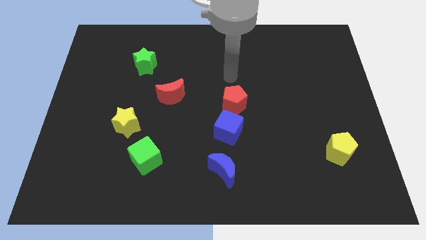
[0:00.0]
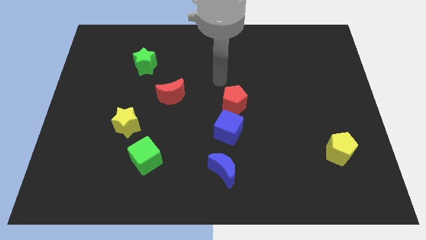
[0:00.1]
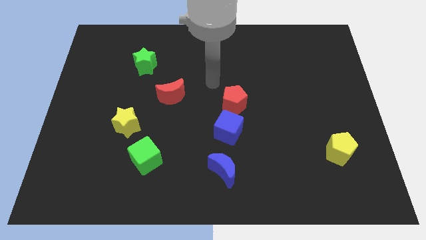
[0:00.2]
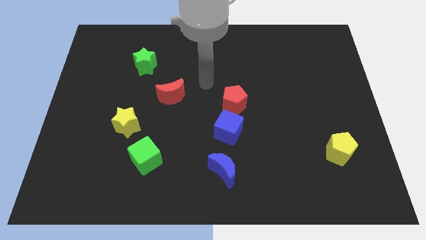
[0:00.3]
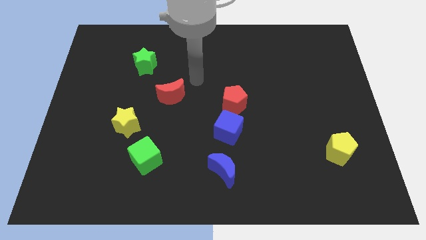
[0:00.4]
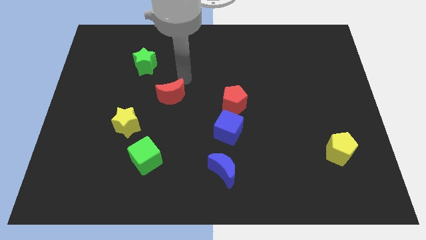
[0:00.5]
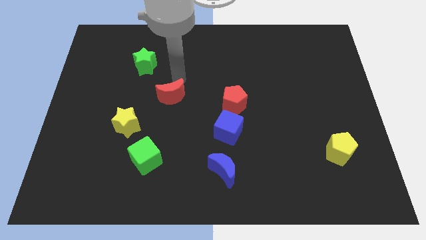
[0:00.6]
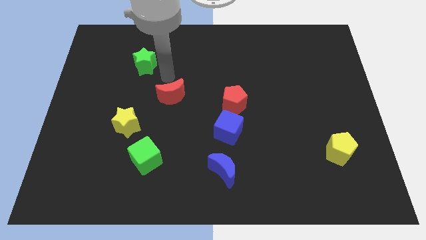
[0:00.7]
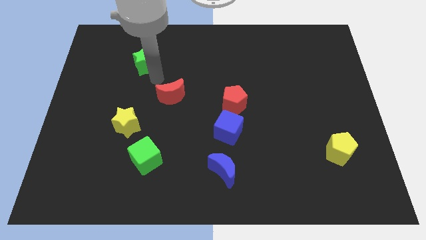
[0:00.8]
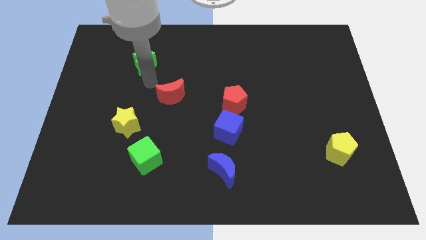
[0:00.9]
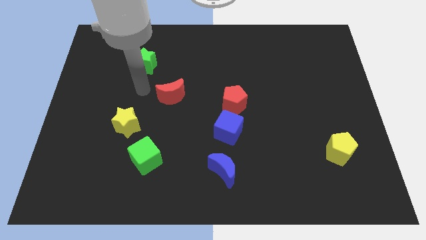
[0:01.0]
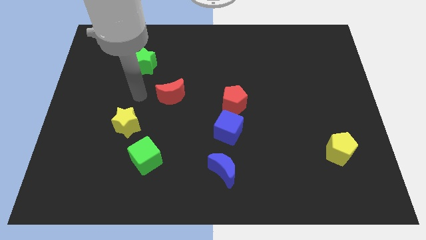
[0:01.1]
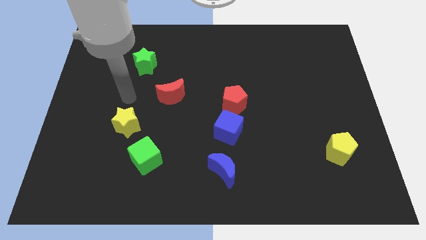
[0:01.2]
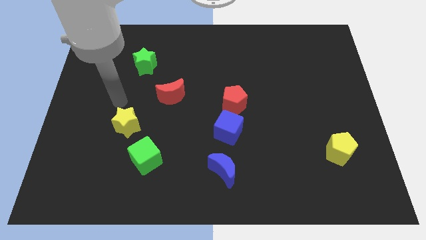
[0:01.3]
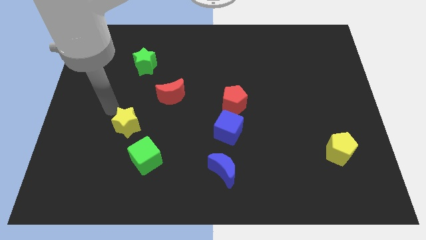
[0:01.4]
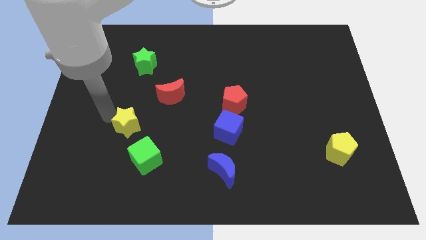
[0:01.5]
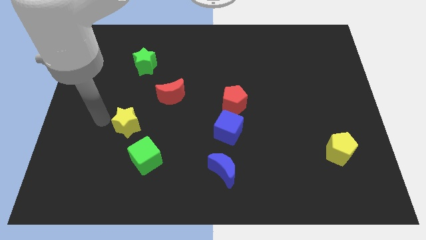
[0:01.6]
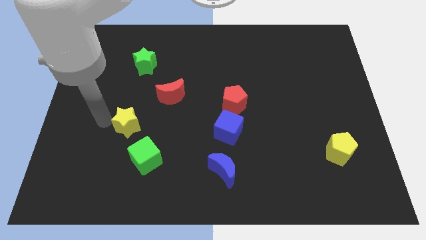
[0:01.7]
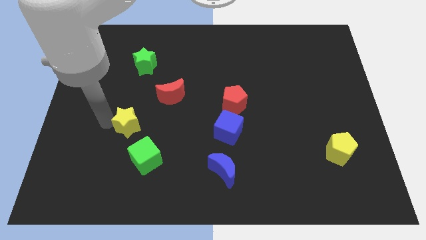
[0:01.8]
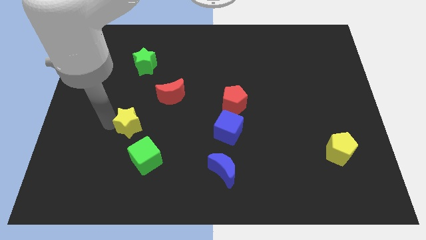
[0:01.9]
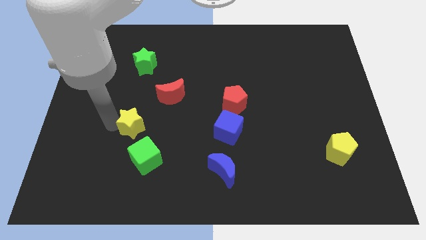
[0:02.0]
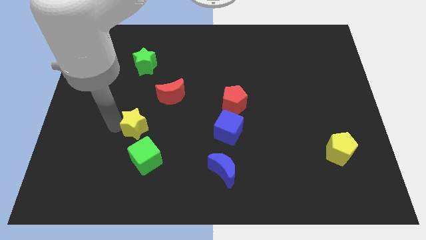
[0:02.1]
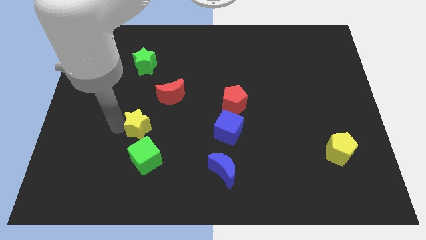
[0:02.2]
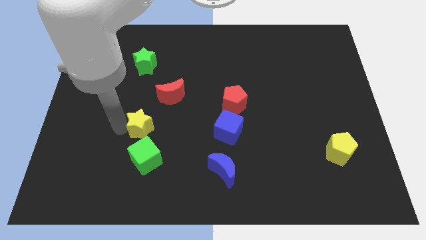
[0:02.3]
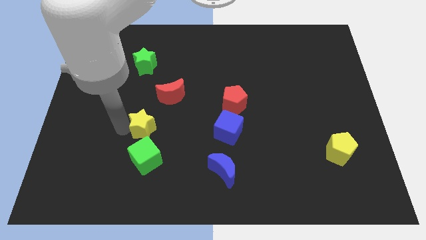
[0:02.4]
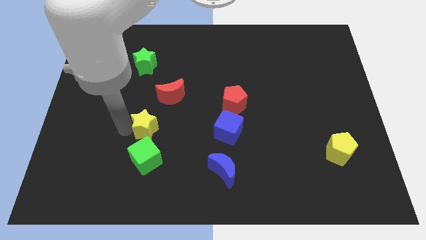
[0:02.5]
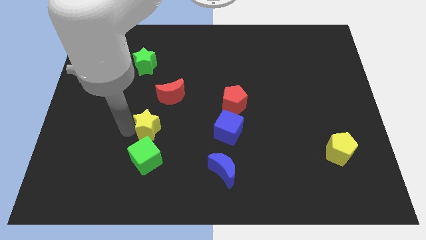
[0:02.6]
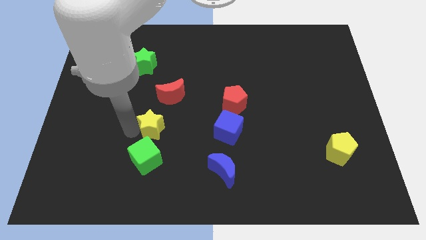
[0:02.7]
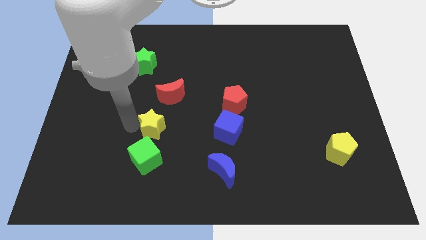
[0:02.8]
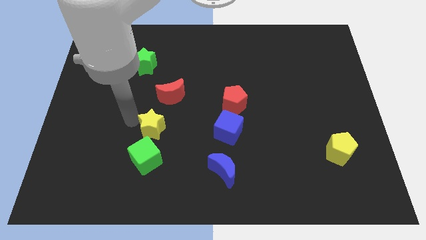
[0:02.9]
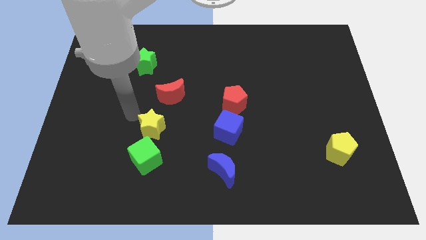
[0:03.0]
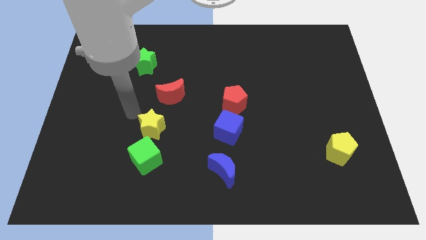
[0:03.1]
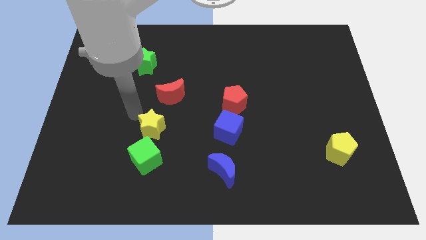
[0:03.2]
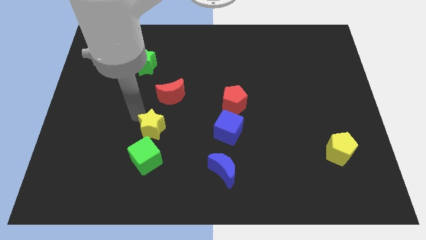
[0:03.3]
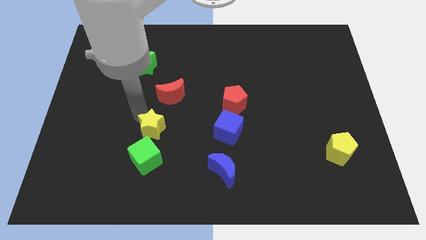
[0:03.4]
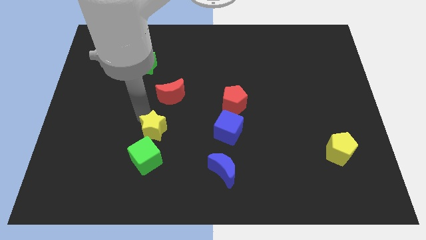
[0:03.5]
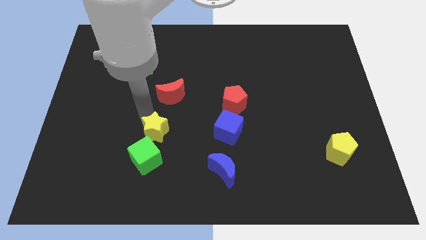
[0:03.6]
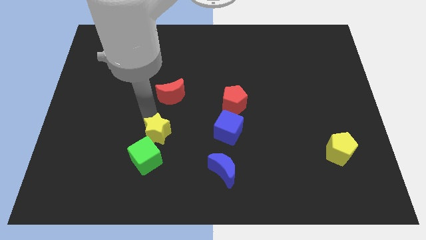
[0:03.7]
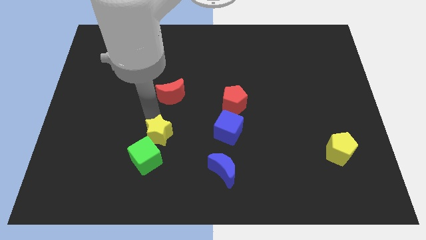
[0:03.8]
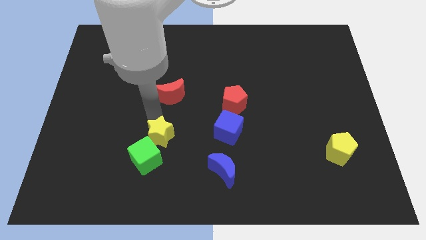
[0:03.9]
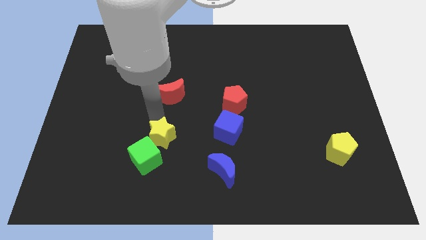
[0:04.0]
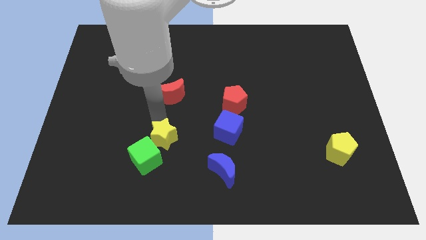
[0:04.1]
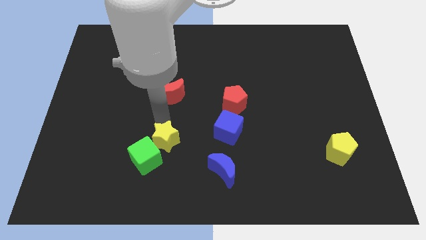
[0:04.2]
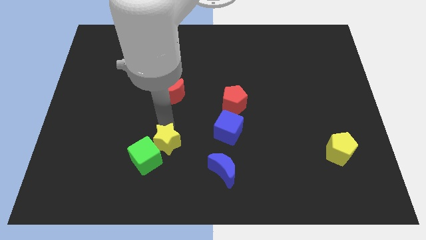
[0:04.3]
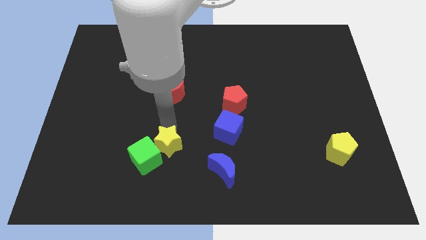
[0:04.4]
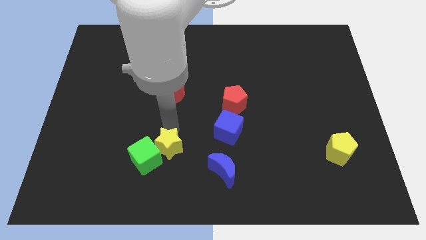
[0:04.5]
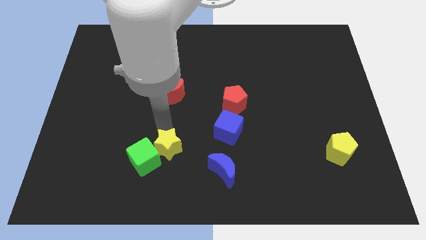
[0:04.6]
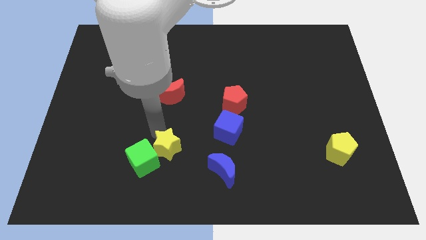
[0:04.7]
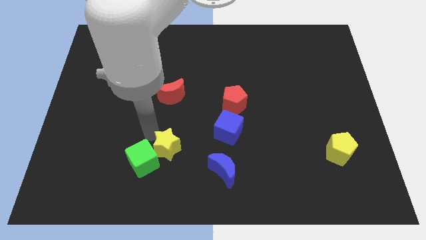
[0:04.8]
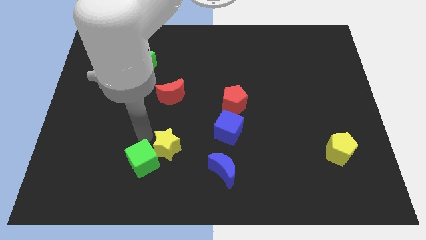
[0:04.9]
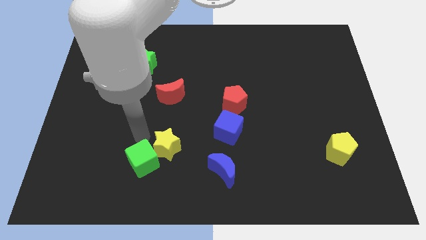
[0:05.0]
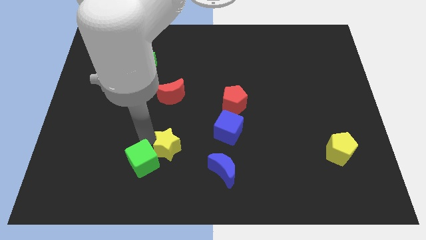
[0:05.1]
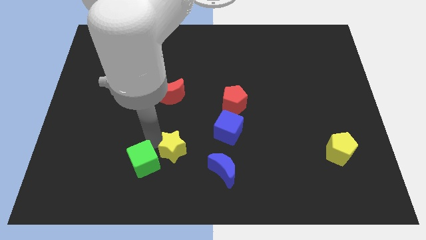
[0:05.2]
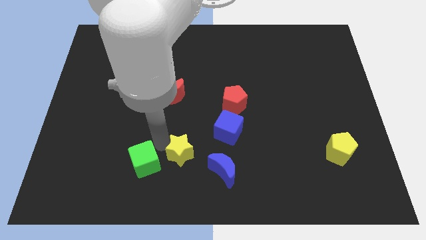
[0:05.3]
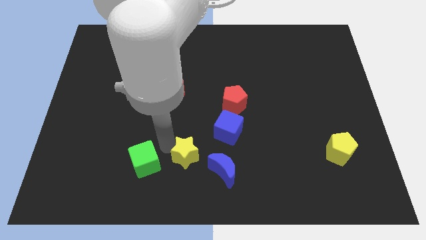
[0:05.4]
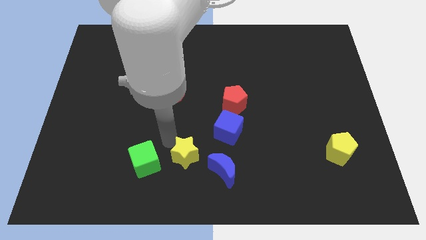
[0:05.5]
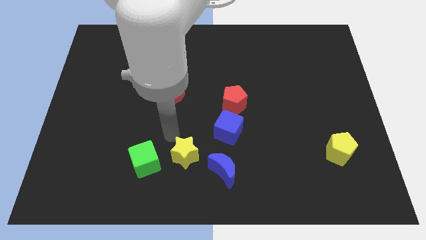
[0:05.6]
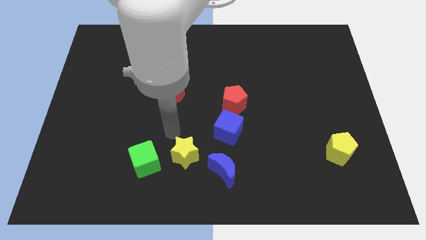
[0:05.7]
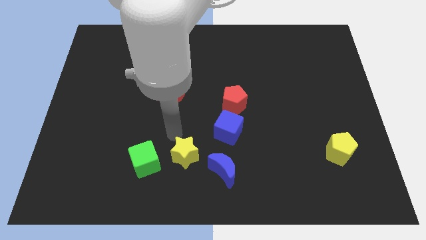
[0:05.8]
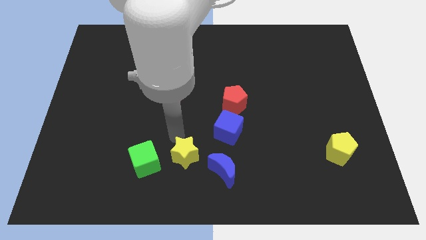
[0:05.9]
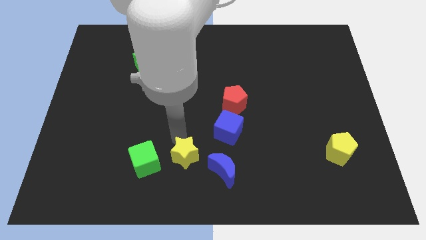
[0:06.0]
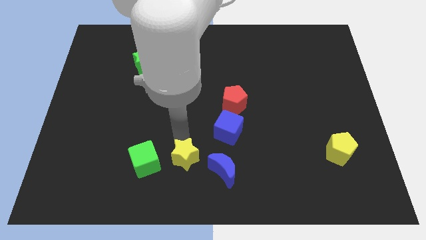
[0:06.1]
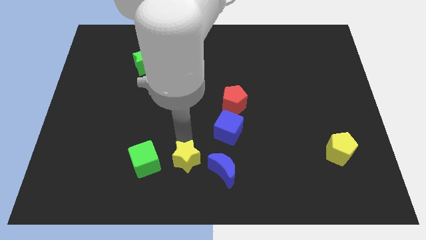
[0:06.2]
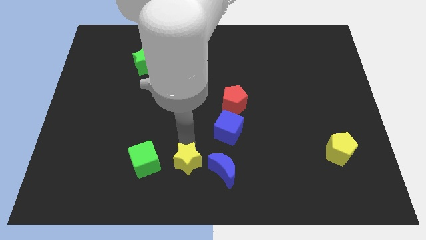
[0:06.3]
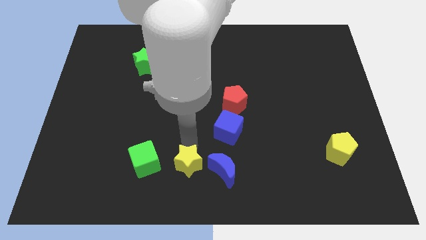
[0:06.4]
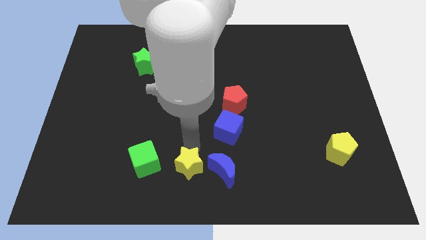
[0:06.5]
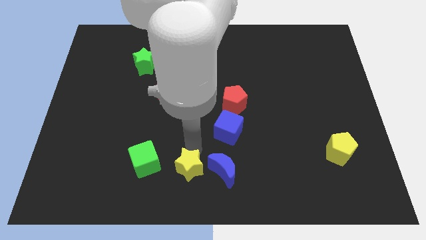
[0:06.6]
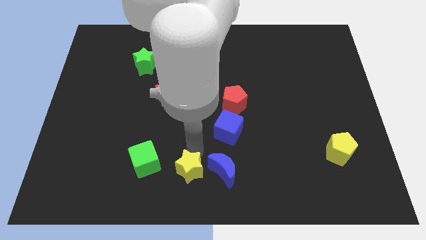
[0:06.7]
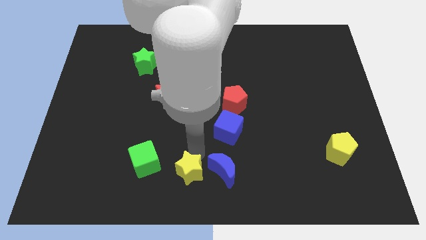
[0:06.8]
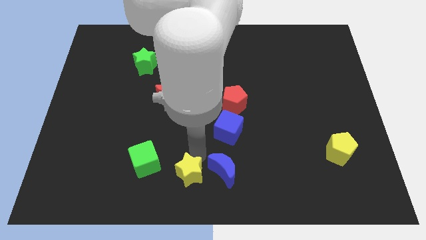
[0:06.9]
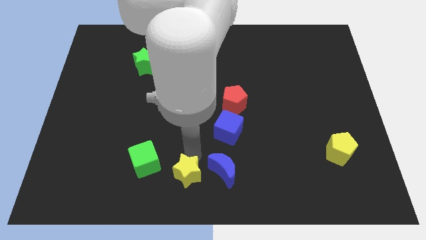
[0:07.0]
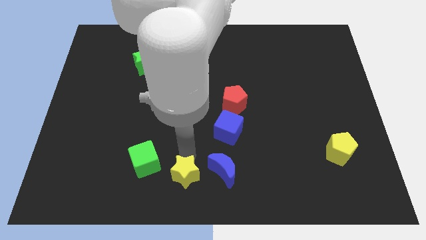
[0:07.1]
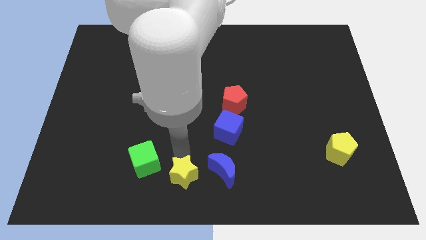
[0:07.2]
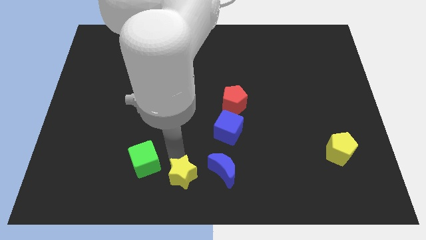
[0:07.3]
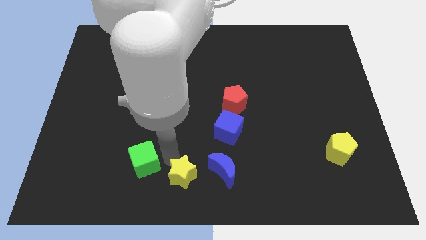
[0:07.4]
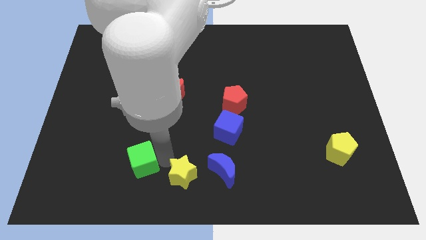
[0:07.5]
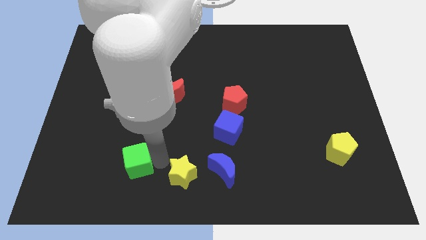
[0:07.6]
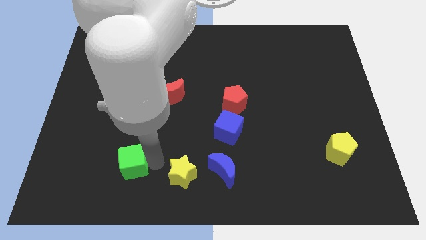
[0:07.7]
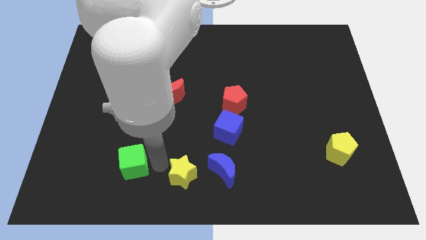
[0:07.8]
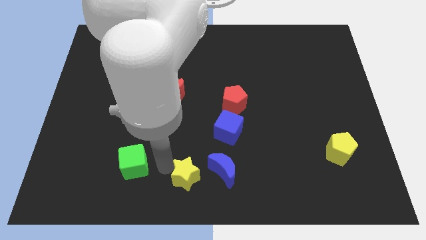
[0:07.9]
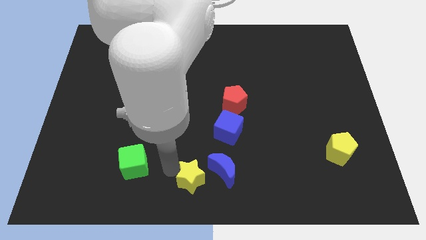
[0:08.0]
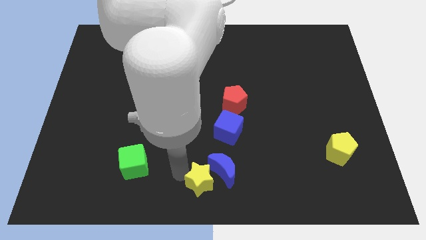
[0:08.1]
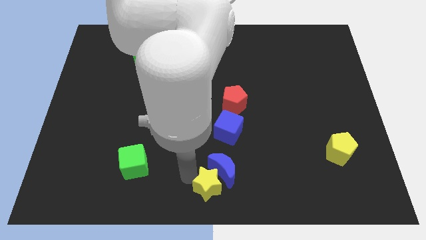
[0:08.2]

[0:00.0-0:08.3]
slide the yellow star below the blue cube
